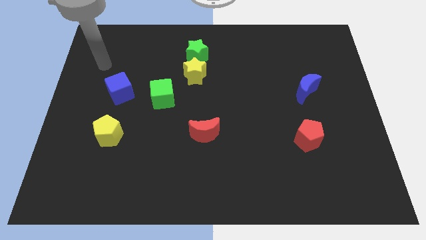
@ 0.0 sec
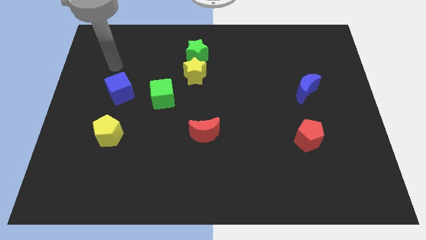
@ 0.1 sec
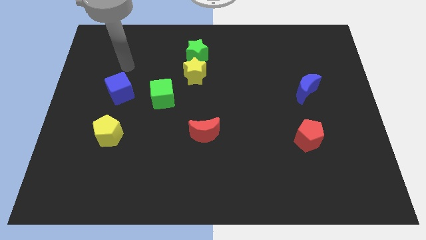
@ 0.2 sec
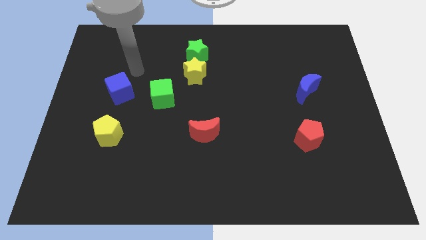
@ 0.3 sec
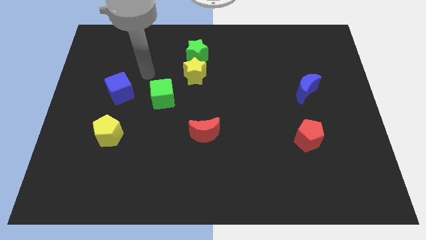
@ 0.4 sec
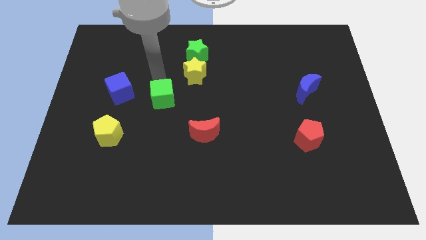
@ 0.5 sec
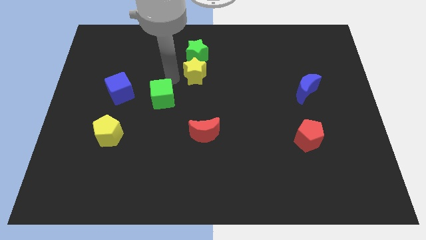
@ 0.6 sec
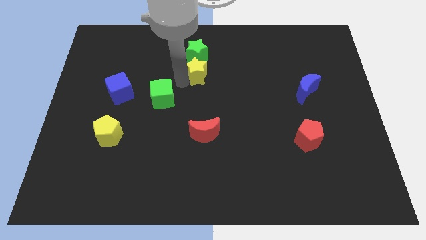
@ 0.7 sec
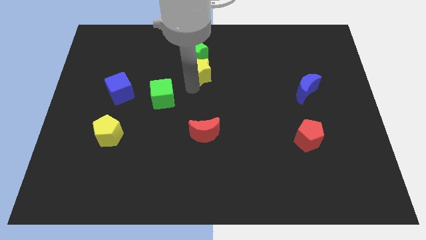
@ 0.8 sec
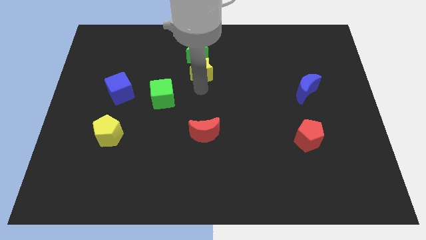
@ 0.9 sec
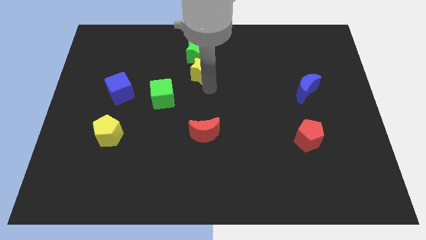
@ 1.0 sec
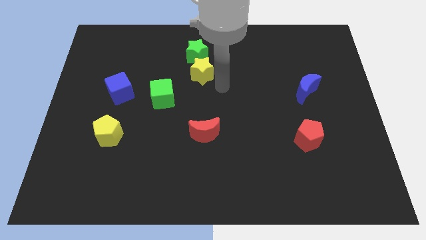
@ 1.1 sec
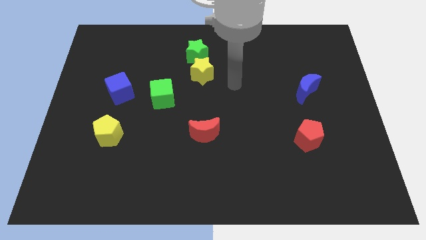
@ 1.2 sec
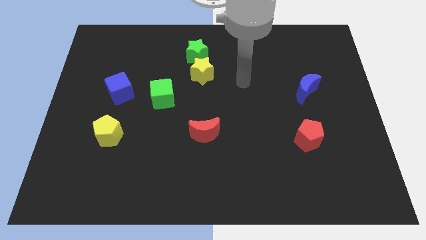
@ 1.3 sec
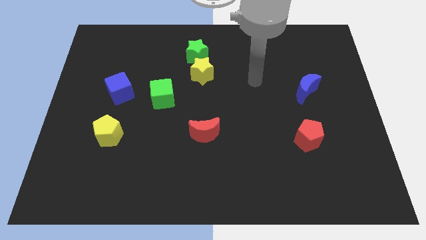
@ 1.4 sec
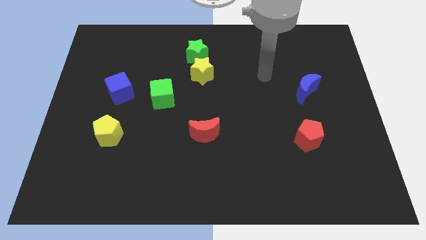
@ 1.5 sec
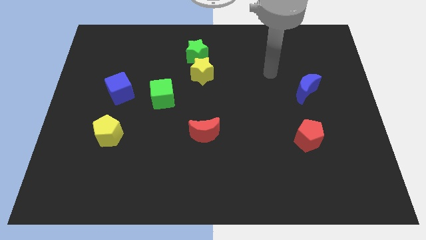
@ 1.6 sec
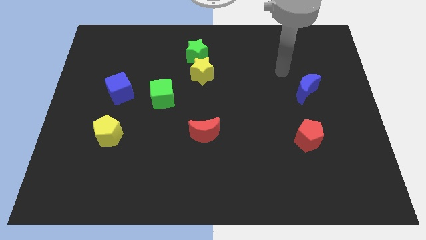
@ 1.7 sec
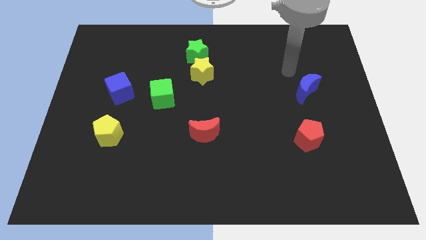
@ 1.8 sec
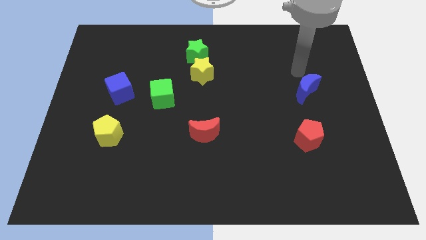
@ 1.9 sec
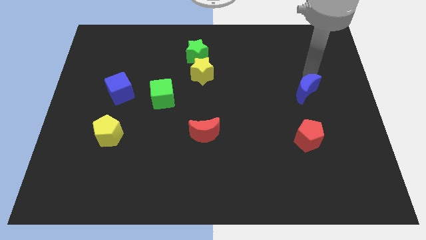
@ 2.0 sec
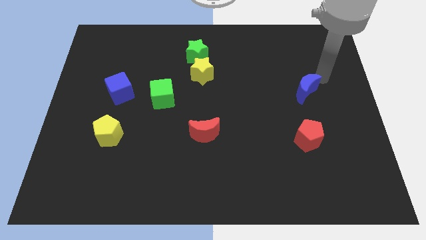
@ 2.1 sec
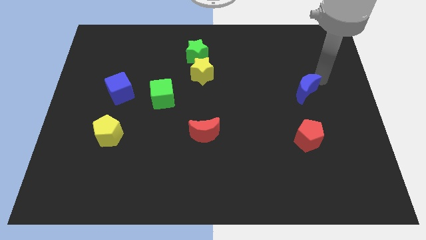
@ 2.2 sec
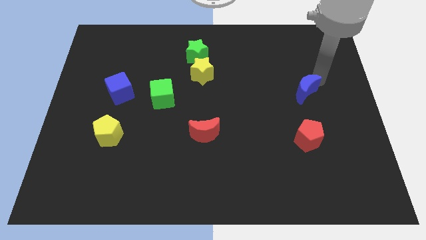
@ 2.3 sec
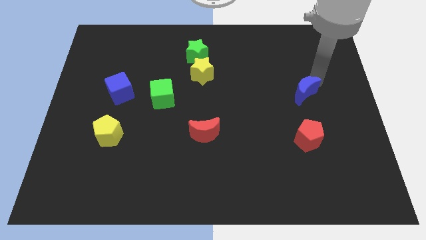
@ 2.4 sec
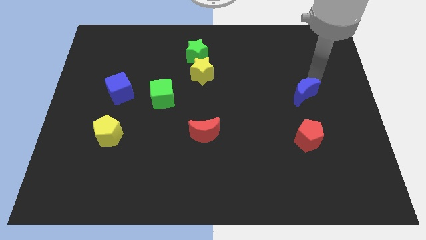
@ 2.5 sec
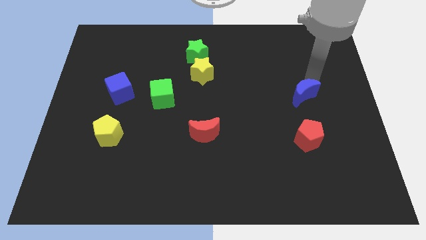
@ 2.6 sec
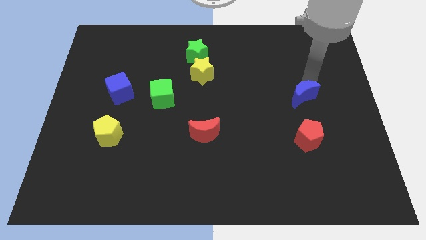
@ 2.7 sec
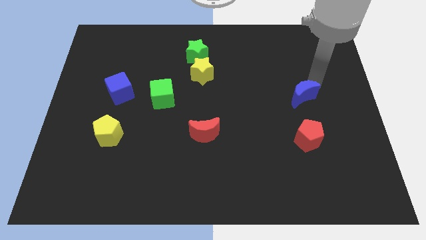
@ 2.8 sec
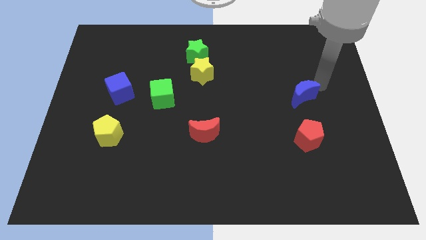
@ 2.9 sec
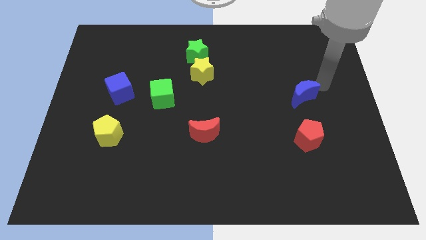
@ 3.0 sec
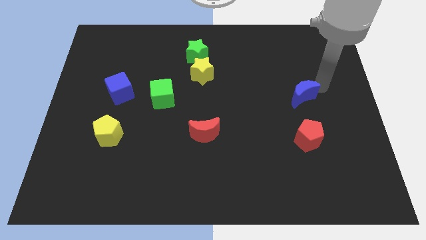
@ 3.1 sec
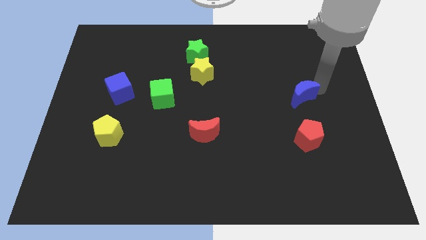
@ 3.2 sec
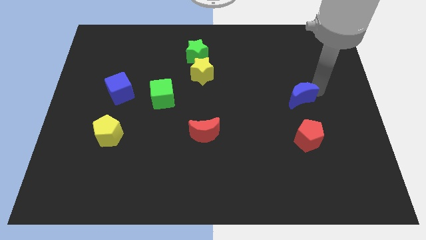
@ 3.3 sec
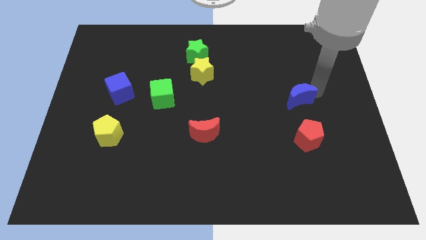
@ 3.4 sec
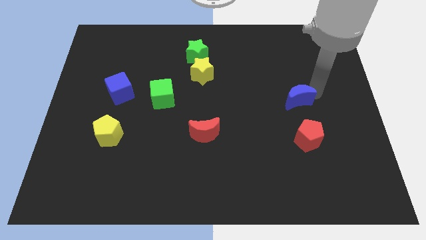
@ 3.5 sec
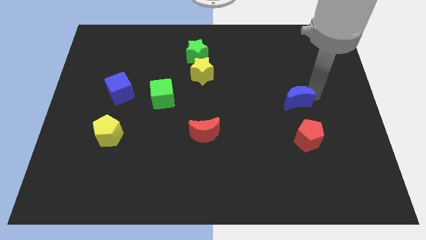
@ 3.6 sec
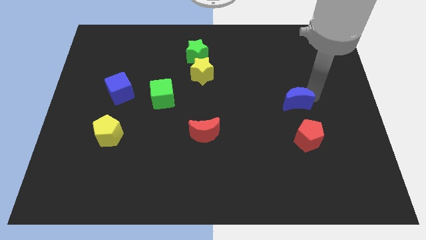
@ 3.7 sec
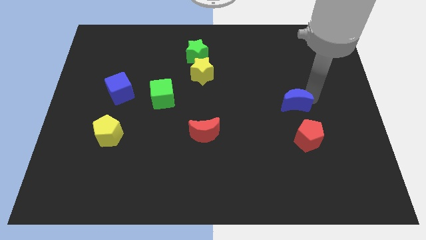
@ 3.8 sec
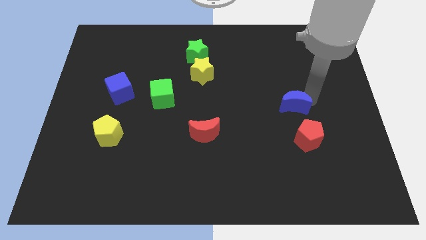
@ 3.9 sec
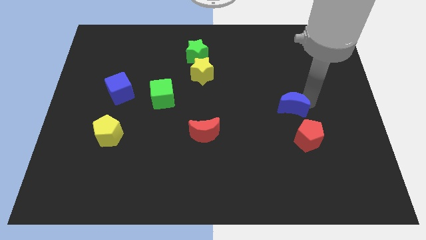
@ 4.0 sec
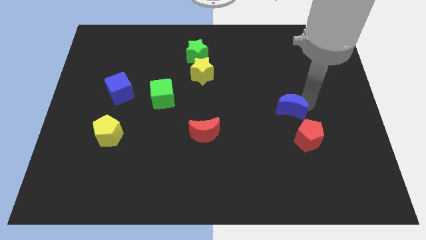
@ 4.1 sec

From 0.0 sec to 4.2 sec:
slightly slide the blue moon down and to the left

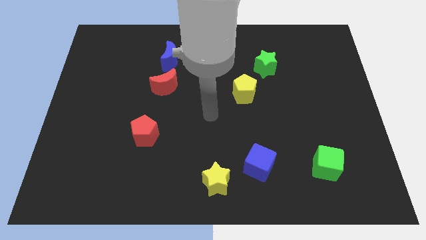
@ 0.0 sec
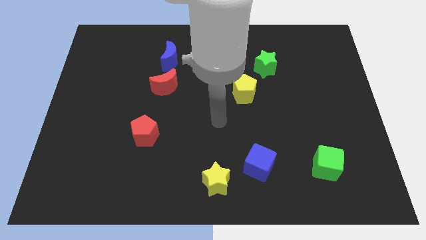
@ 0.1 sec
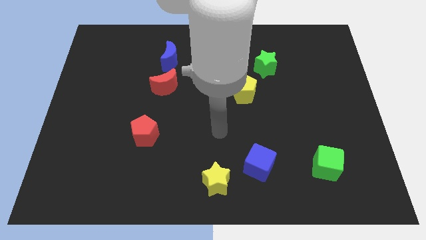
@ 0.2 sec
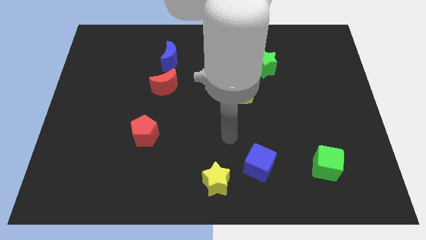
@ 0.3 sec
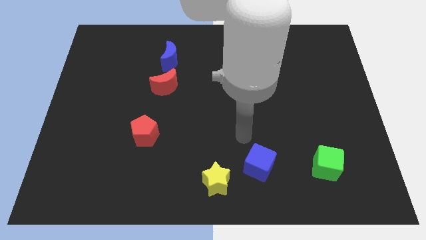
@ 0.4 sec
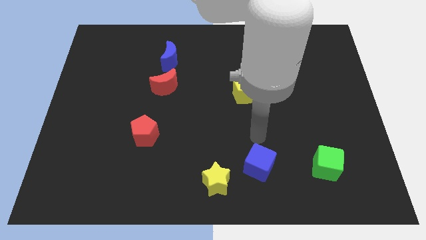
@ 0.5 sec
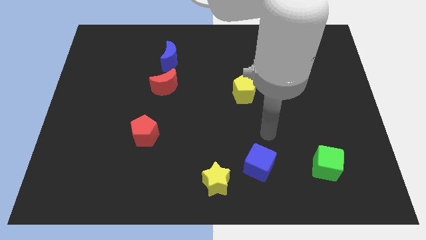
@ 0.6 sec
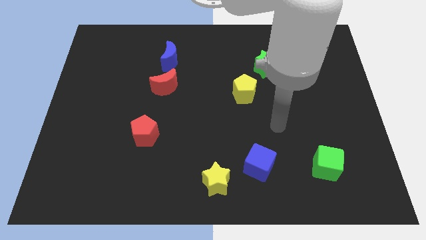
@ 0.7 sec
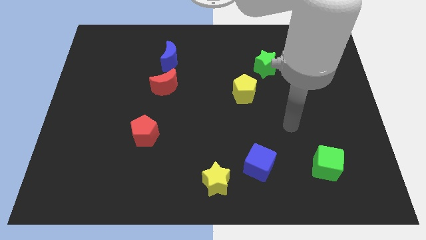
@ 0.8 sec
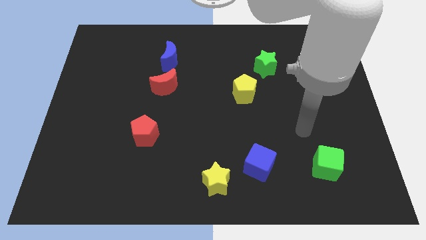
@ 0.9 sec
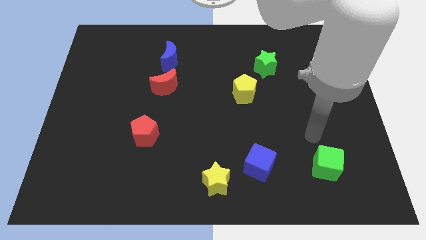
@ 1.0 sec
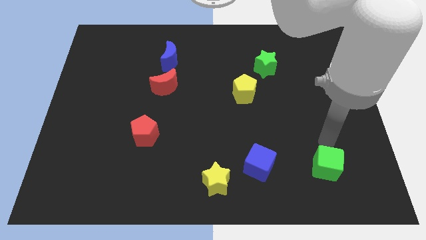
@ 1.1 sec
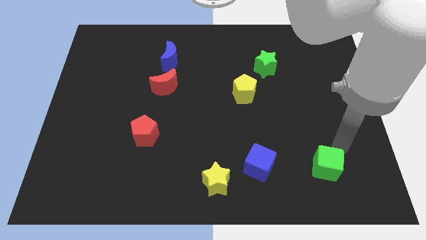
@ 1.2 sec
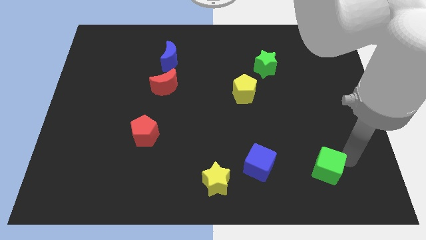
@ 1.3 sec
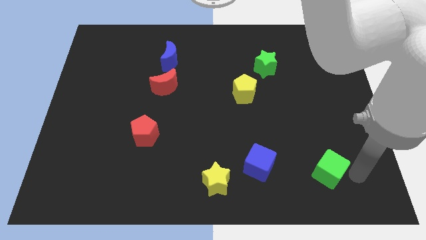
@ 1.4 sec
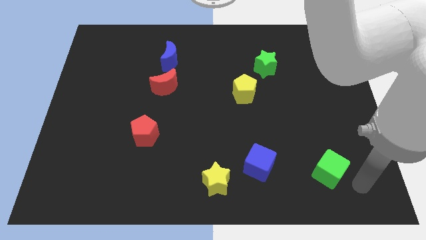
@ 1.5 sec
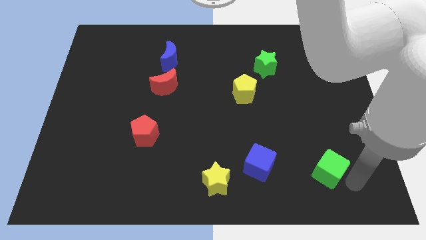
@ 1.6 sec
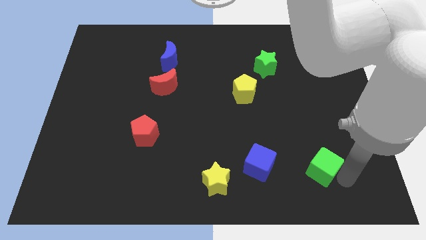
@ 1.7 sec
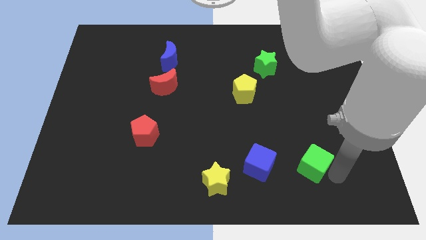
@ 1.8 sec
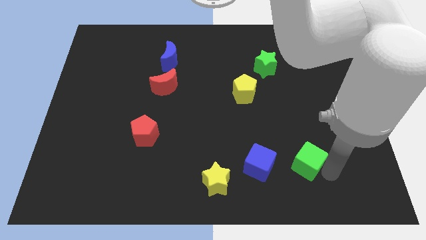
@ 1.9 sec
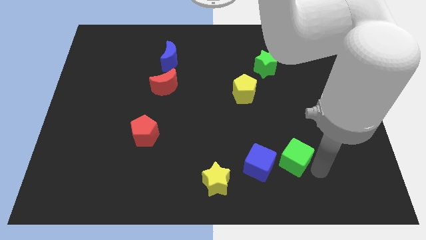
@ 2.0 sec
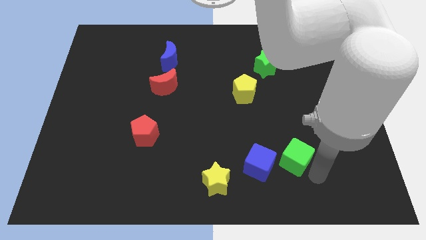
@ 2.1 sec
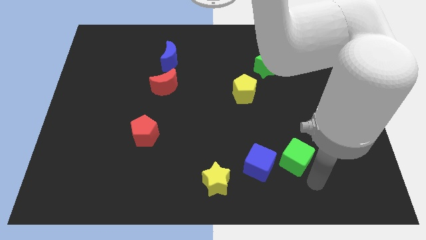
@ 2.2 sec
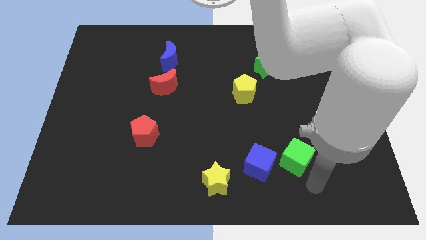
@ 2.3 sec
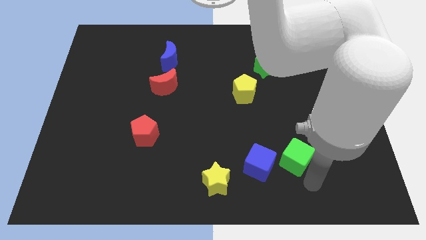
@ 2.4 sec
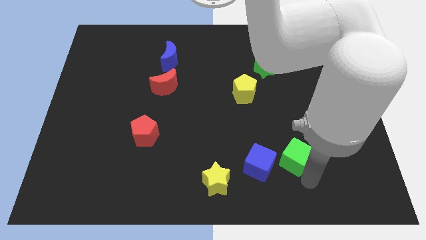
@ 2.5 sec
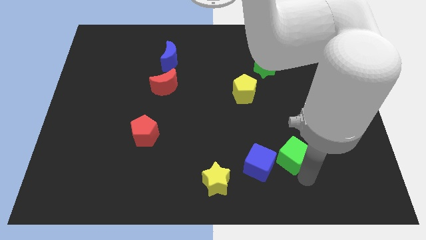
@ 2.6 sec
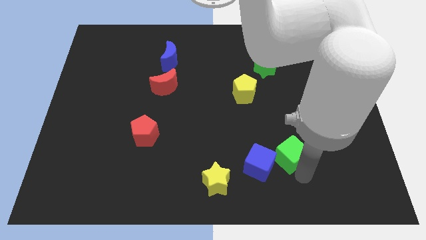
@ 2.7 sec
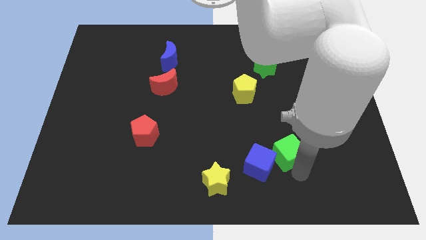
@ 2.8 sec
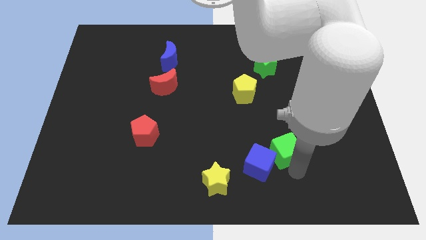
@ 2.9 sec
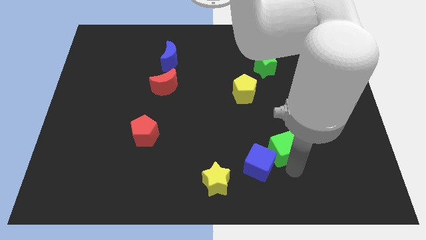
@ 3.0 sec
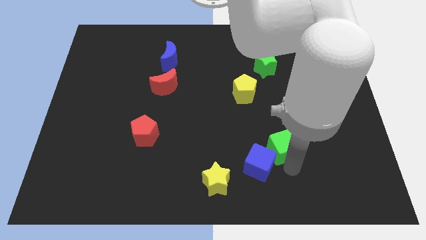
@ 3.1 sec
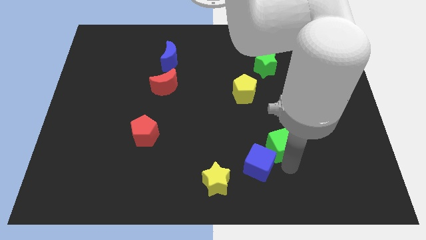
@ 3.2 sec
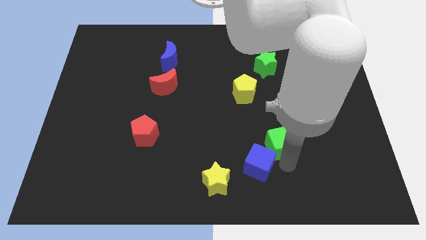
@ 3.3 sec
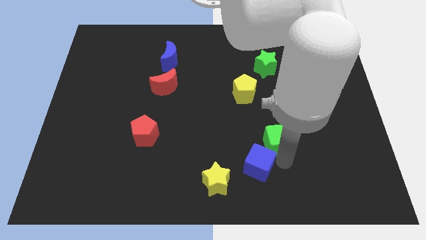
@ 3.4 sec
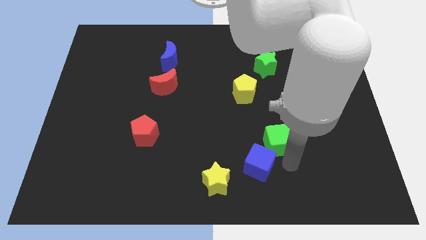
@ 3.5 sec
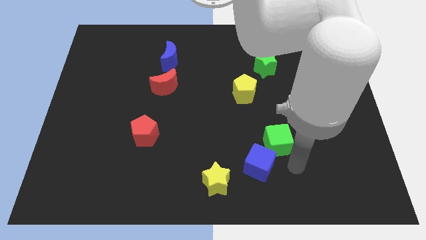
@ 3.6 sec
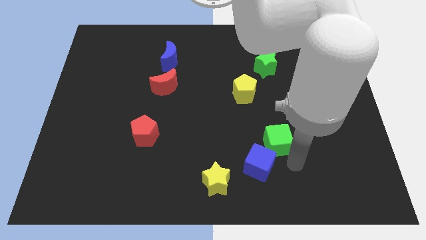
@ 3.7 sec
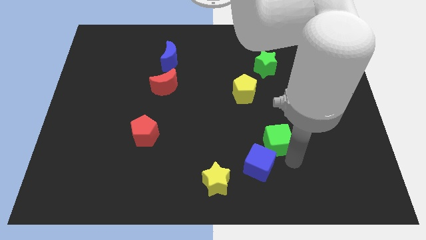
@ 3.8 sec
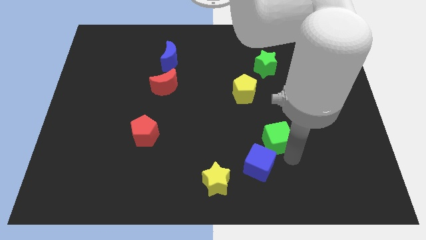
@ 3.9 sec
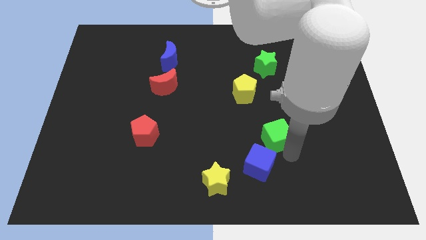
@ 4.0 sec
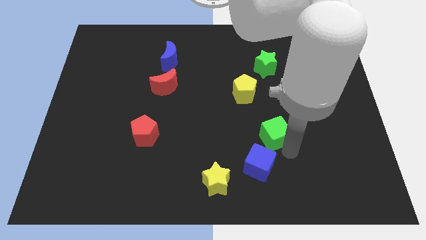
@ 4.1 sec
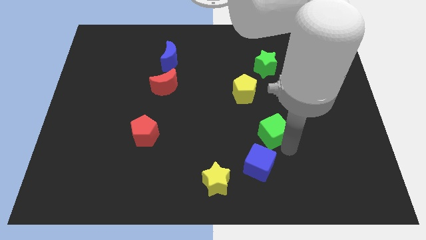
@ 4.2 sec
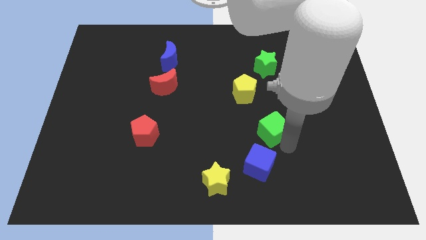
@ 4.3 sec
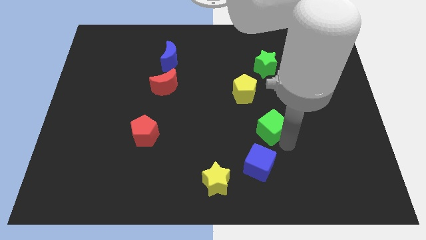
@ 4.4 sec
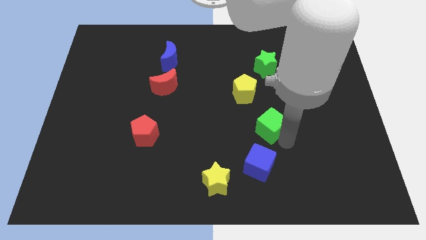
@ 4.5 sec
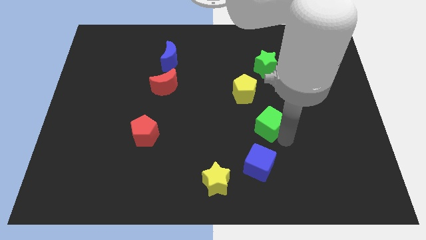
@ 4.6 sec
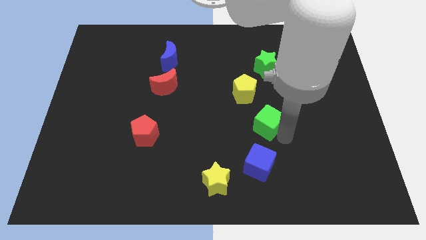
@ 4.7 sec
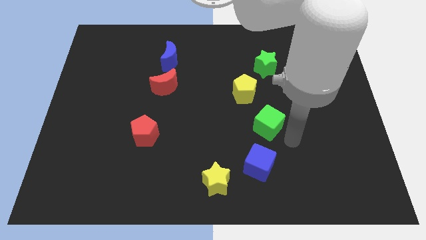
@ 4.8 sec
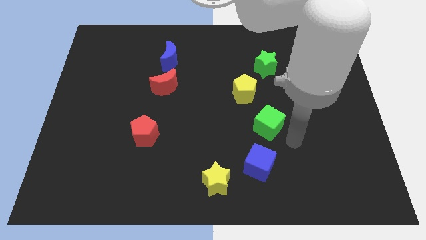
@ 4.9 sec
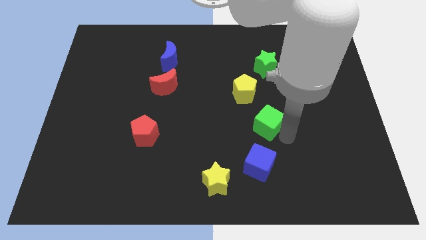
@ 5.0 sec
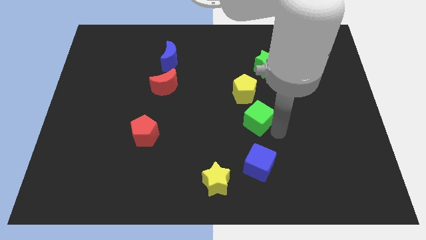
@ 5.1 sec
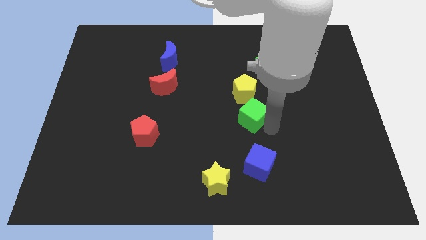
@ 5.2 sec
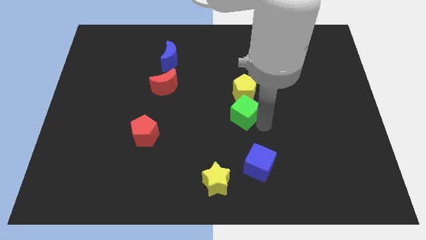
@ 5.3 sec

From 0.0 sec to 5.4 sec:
push the green cube diagonally up and to the left
